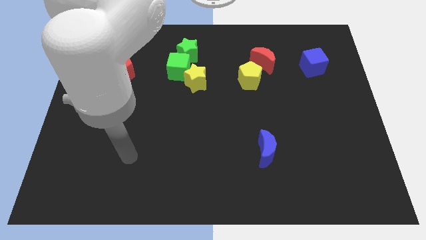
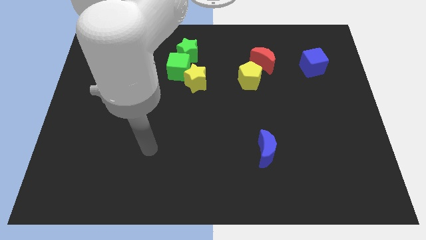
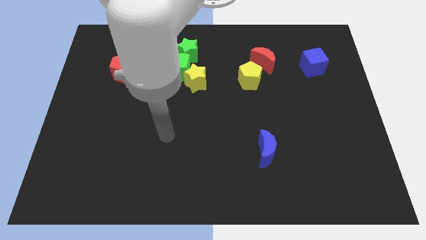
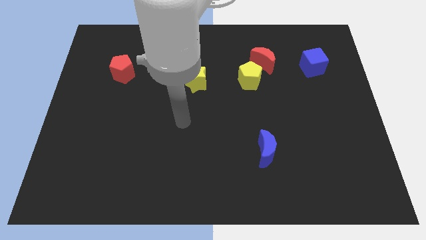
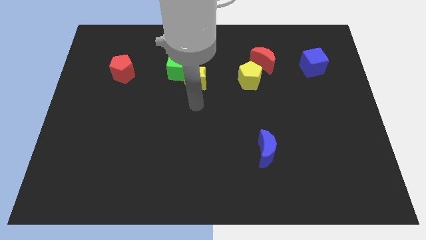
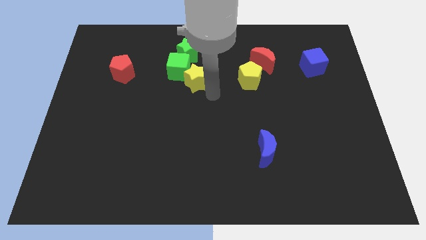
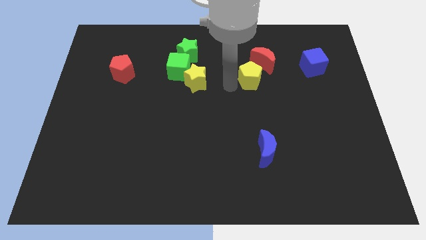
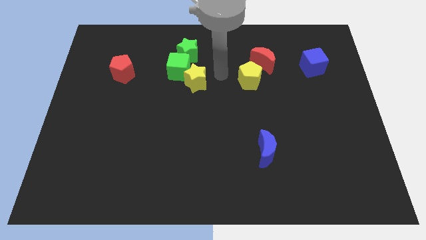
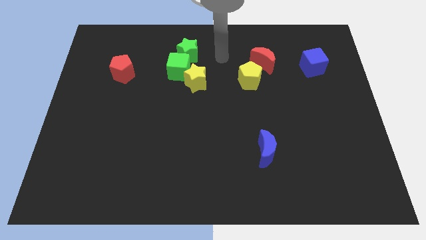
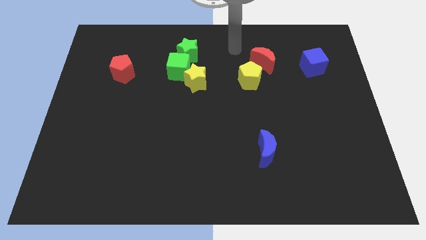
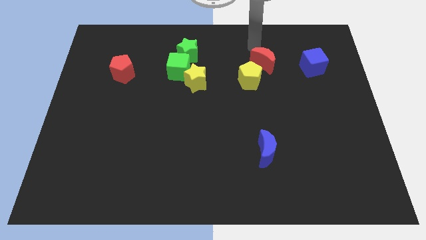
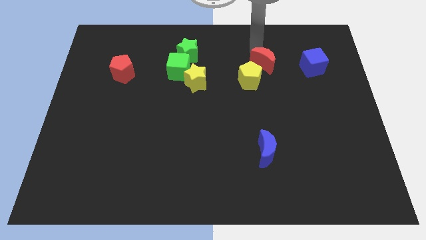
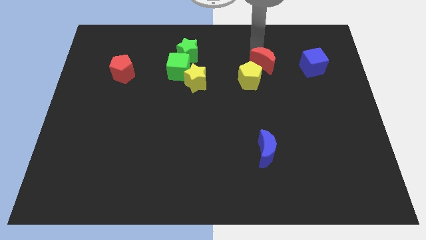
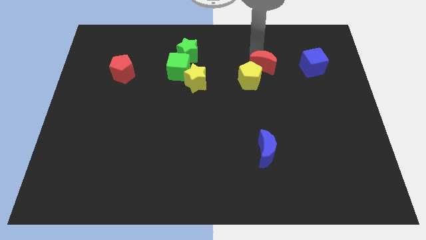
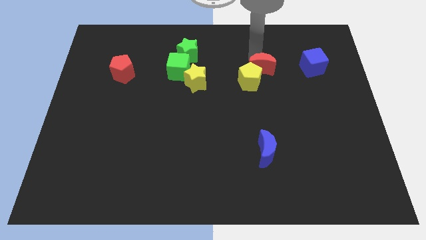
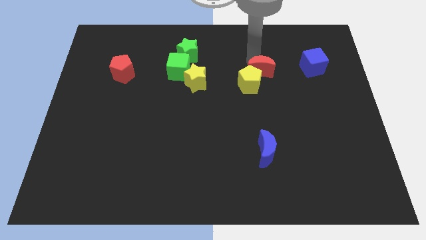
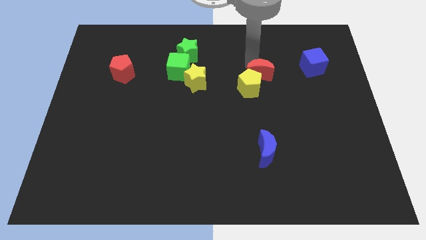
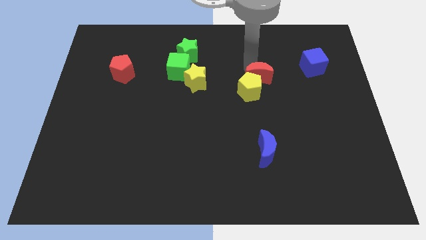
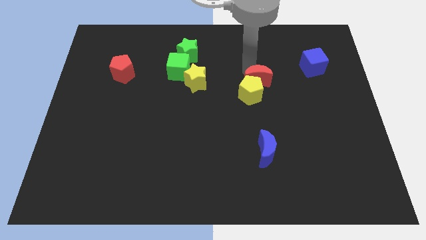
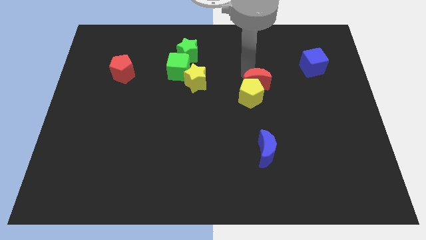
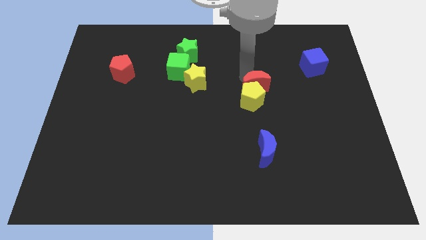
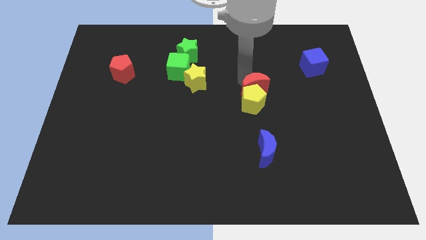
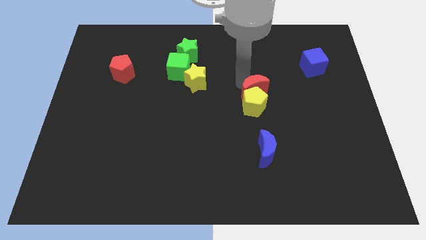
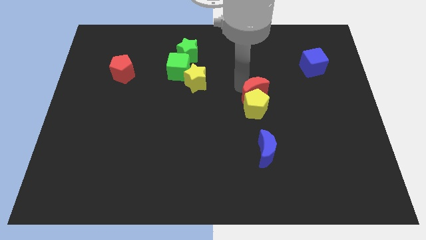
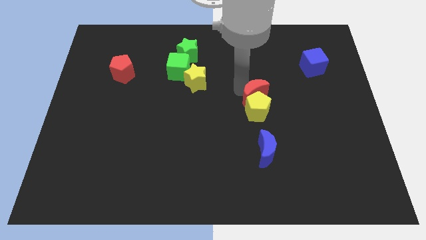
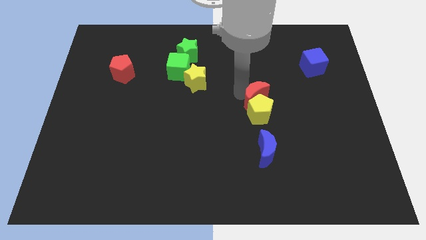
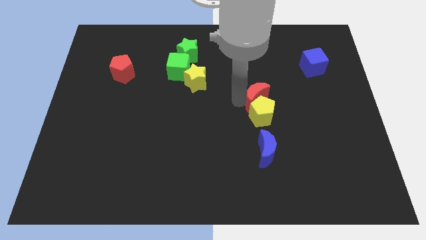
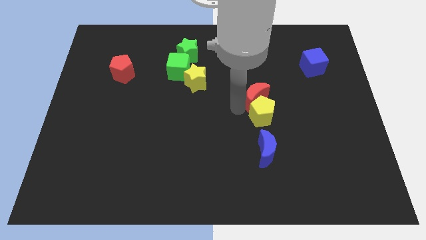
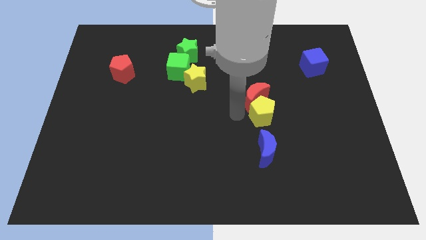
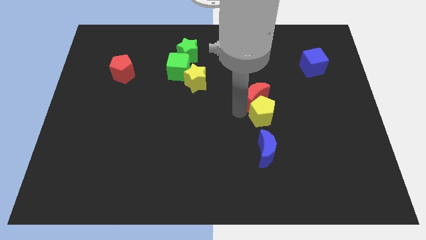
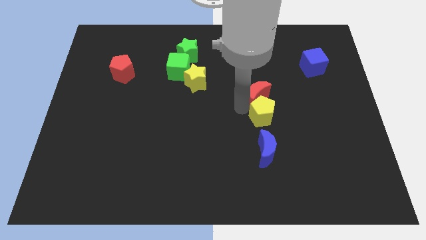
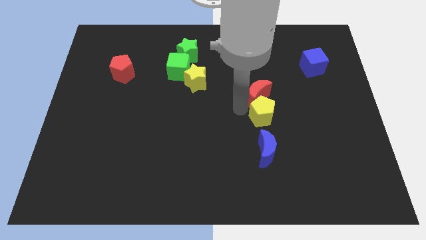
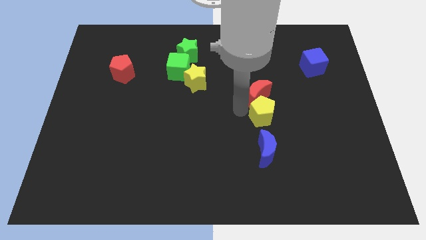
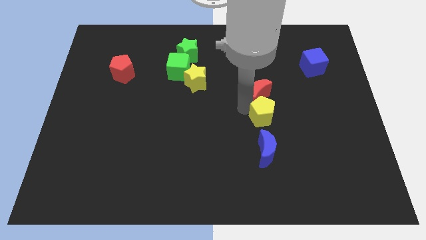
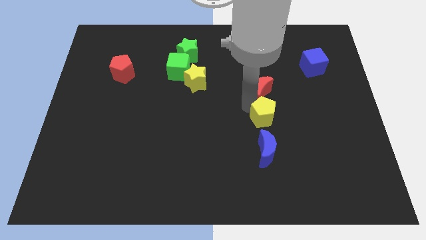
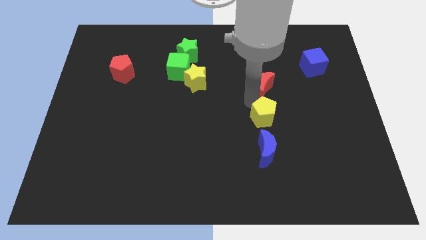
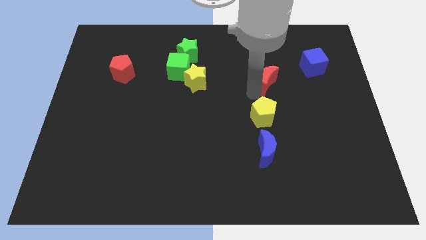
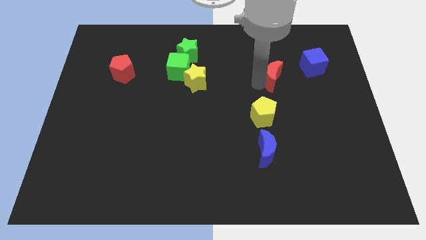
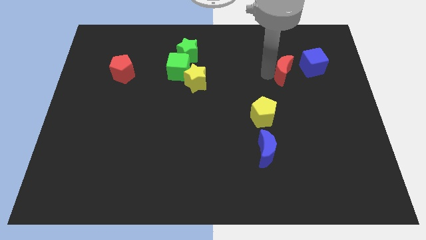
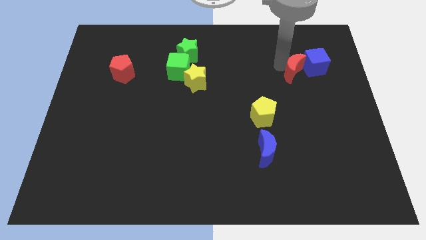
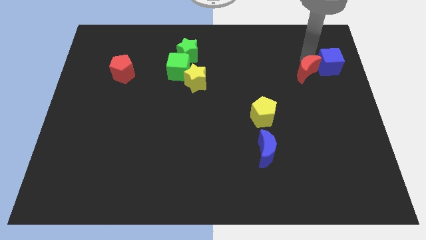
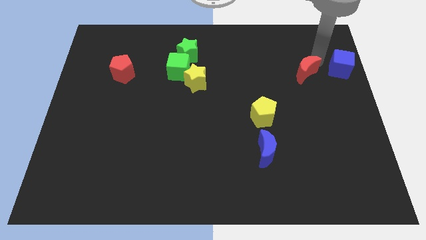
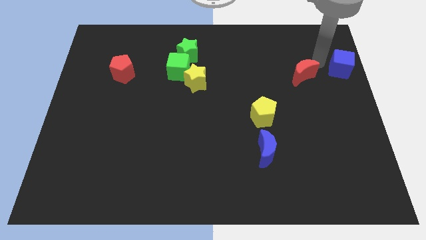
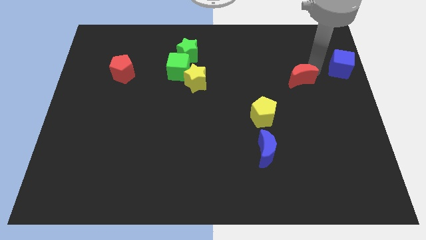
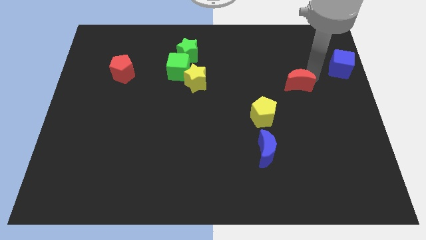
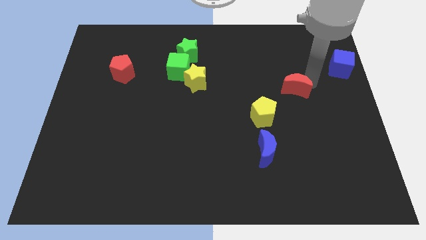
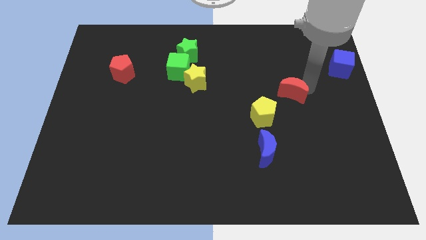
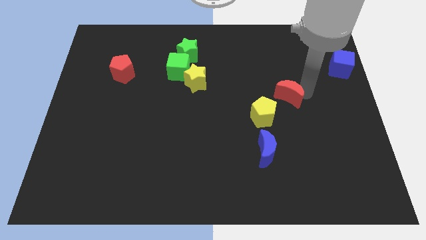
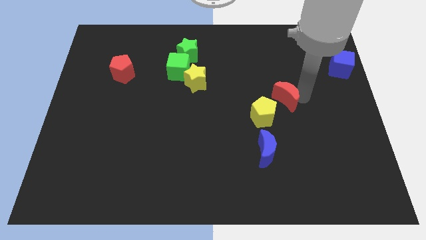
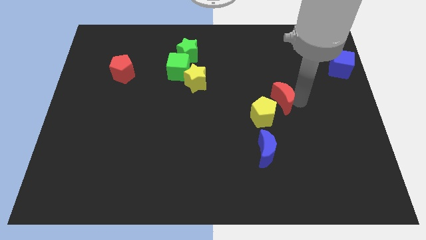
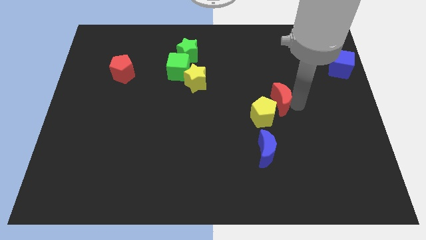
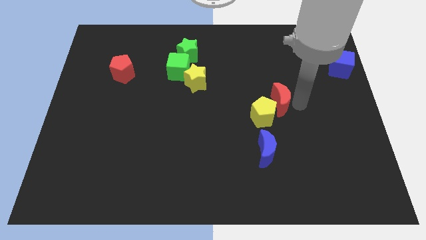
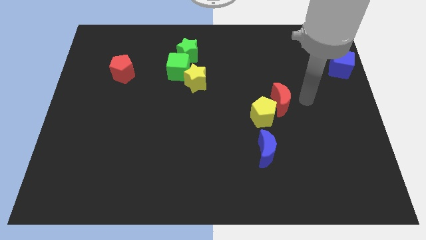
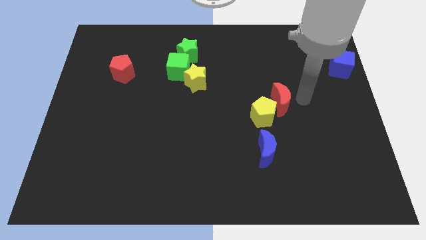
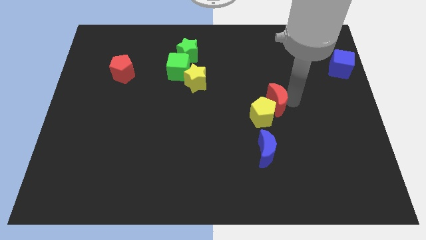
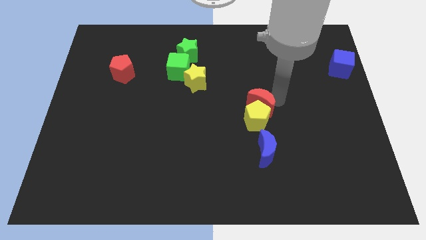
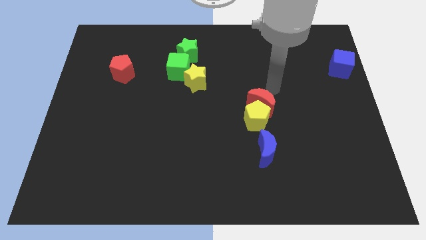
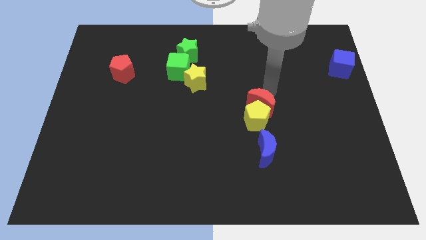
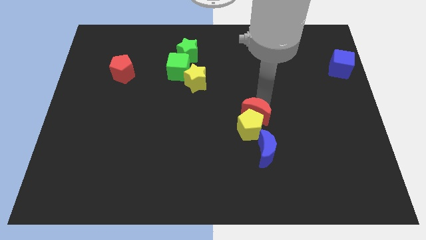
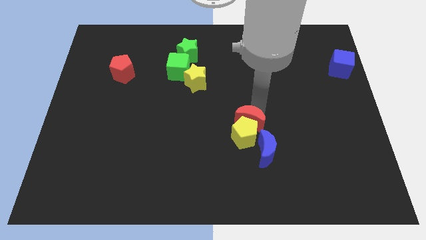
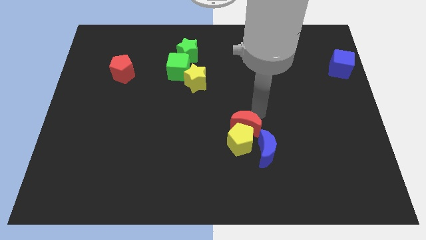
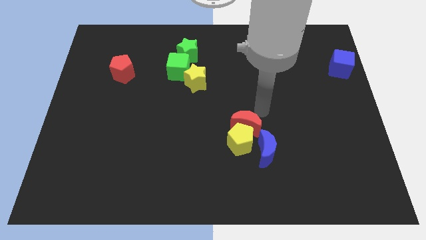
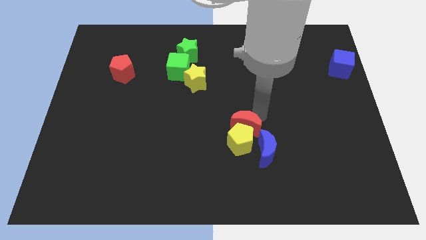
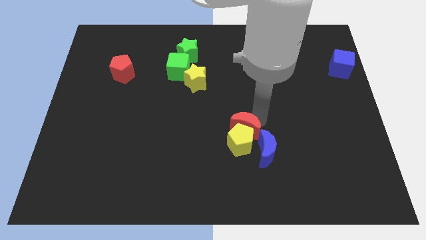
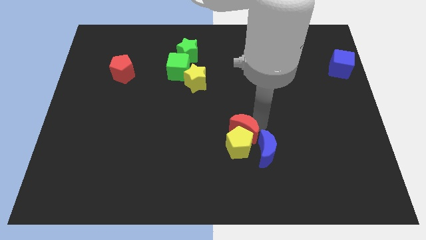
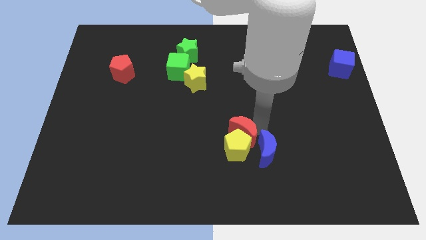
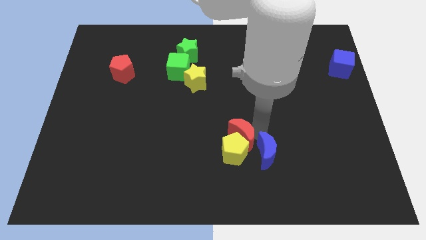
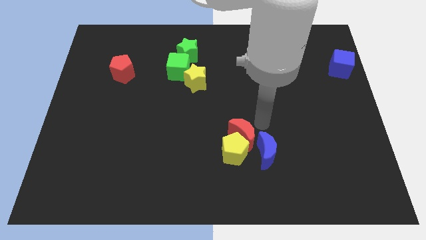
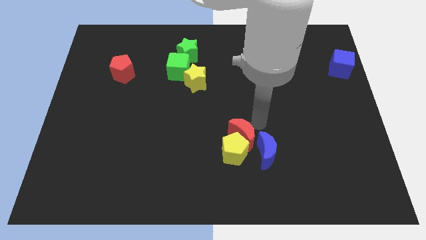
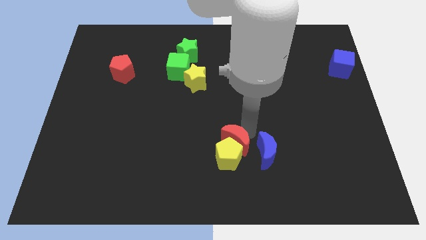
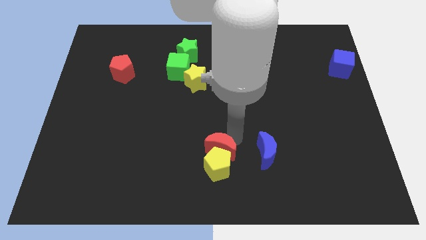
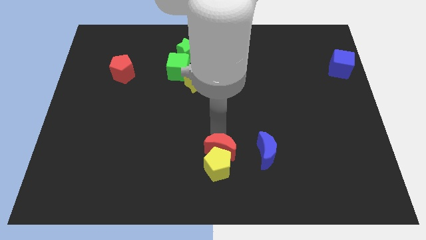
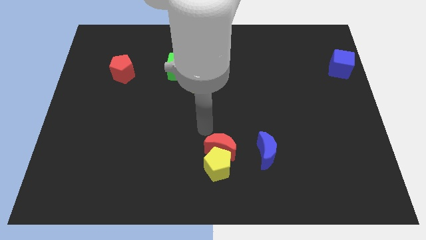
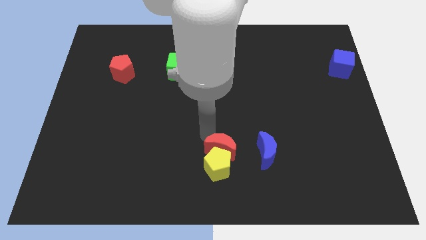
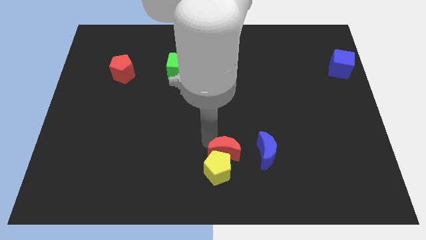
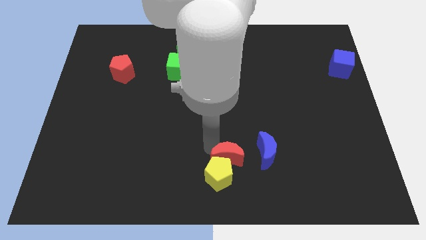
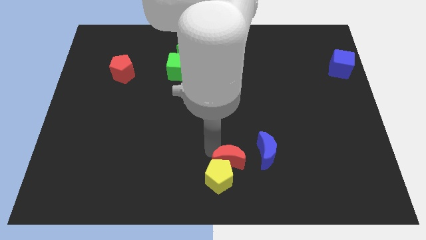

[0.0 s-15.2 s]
put the red moon to the bottom left of the blue moon
